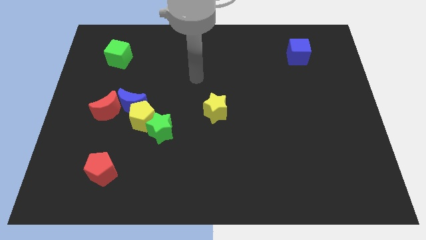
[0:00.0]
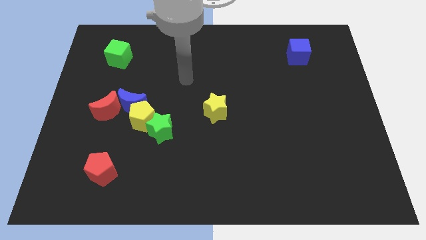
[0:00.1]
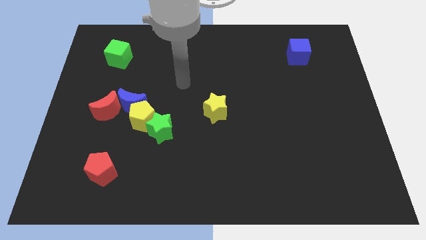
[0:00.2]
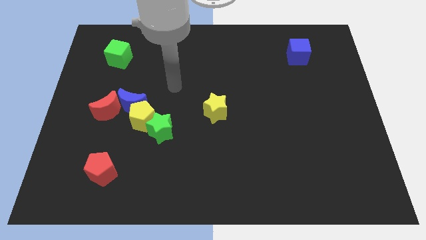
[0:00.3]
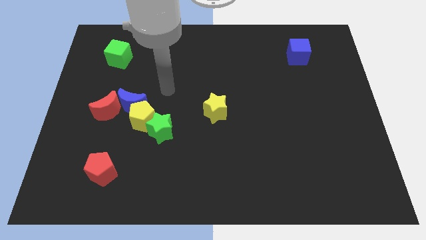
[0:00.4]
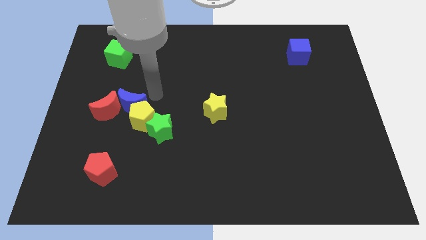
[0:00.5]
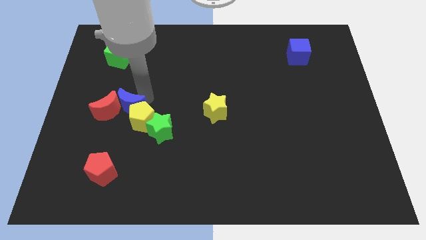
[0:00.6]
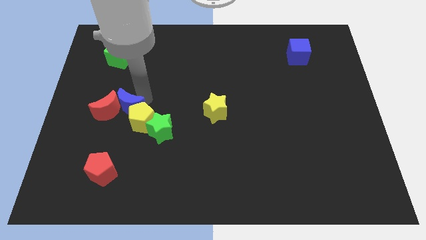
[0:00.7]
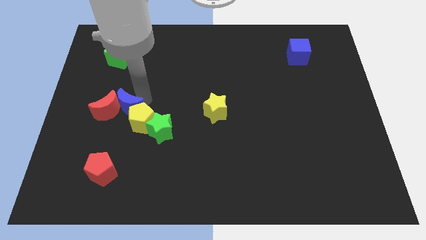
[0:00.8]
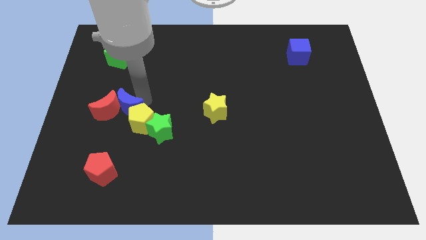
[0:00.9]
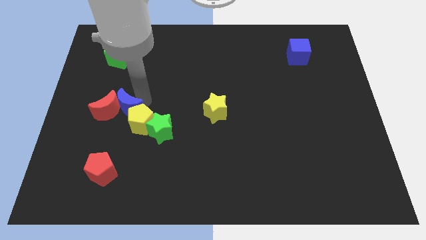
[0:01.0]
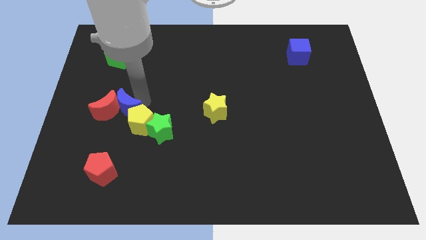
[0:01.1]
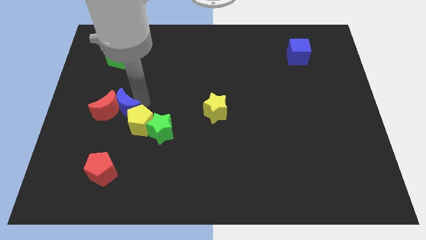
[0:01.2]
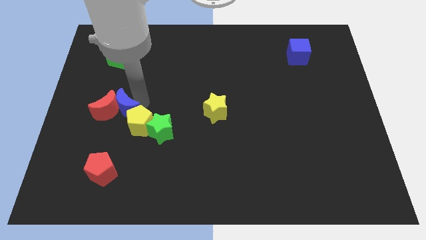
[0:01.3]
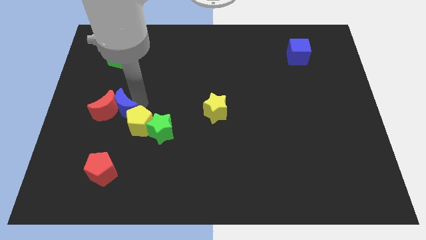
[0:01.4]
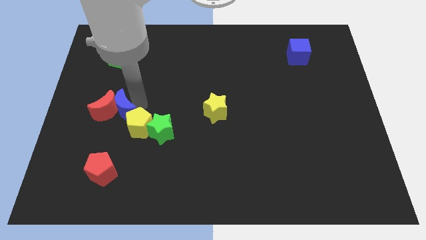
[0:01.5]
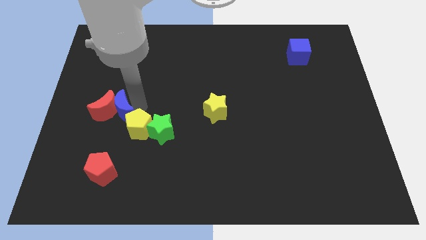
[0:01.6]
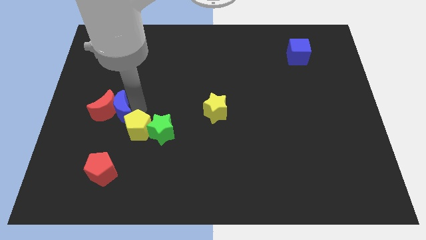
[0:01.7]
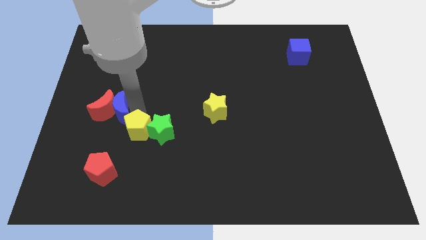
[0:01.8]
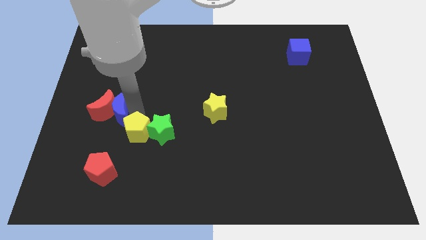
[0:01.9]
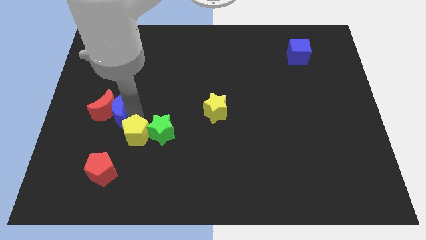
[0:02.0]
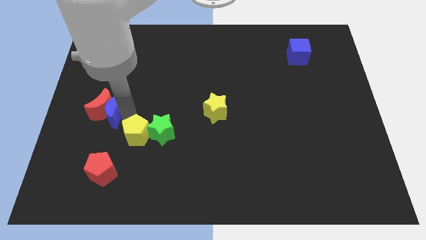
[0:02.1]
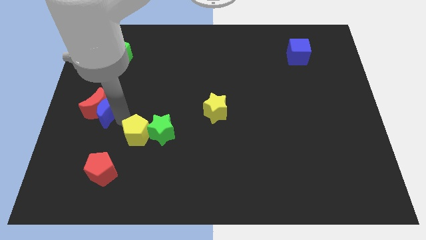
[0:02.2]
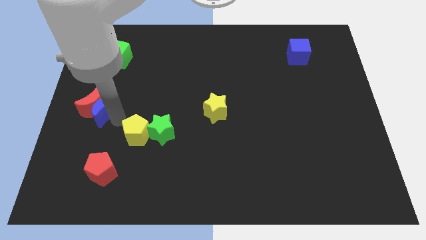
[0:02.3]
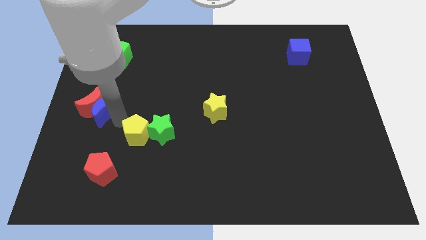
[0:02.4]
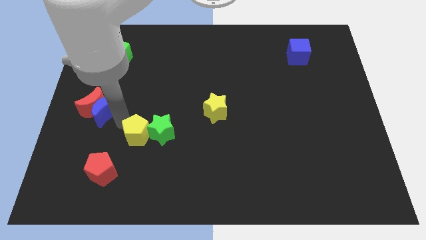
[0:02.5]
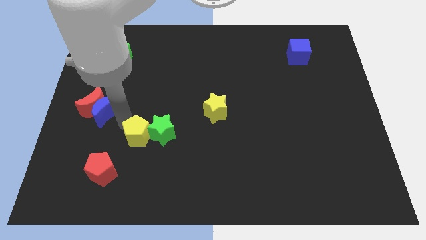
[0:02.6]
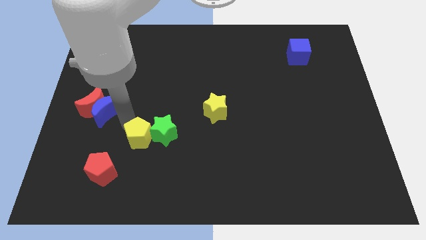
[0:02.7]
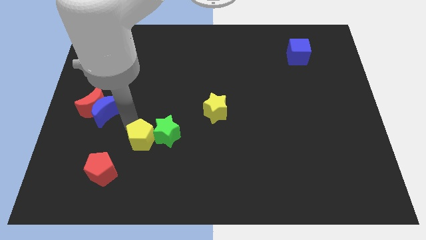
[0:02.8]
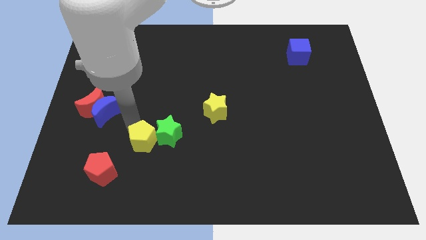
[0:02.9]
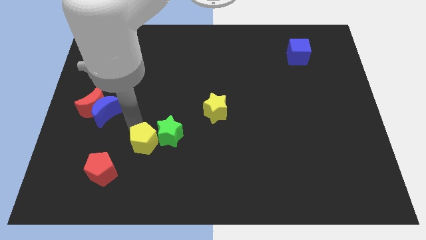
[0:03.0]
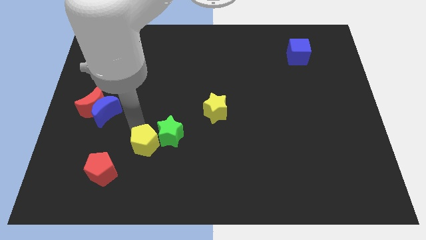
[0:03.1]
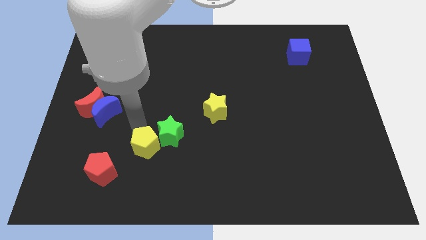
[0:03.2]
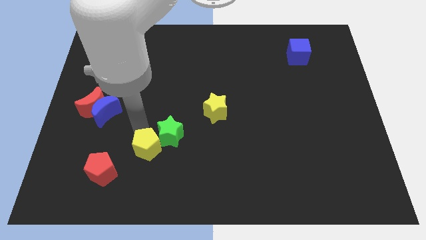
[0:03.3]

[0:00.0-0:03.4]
move the yellow pentagon away from the blue moon, green star, and red moon

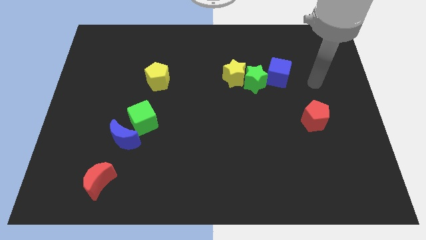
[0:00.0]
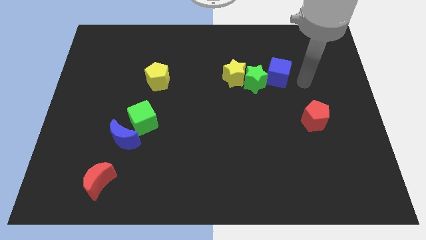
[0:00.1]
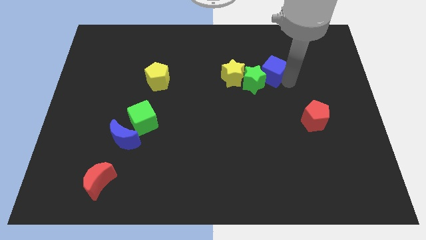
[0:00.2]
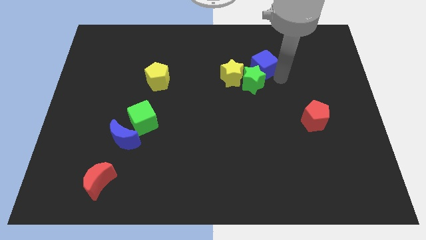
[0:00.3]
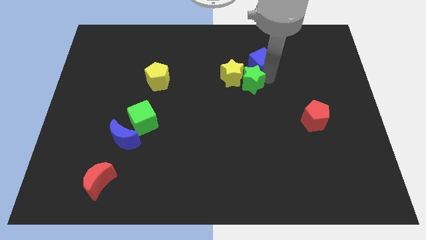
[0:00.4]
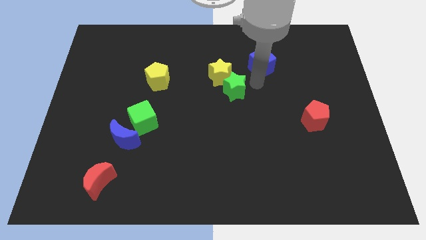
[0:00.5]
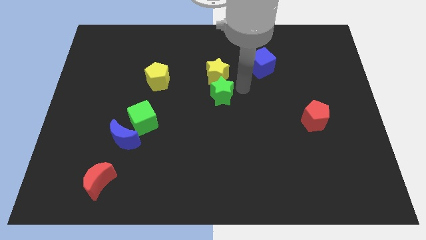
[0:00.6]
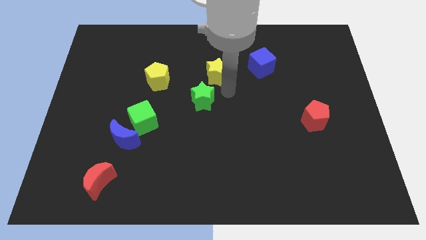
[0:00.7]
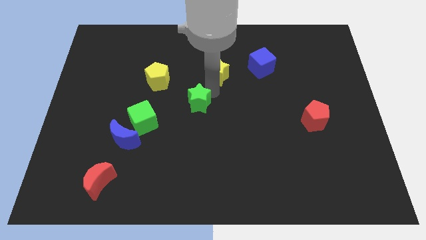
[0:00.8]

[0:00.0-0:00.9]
pull the yellow star apart from the green star

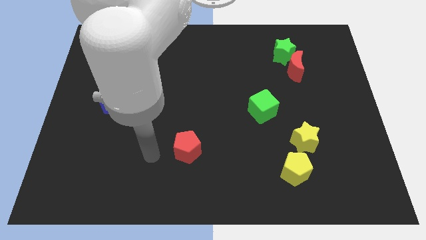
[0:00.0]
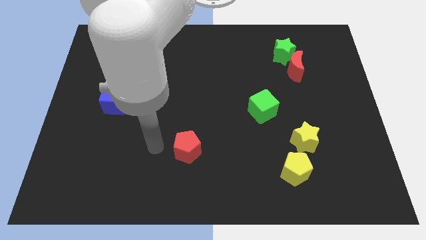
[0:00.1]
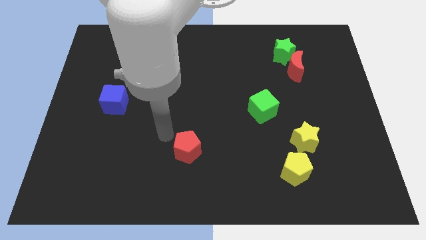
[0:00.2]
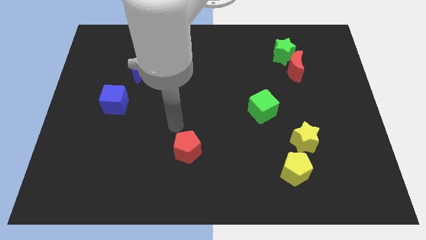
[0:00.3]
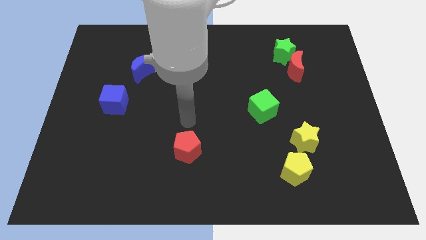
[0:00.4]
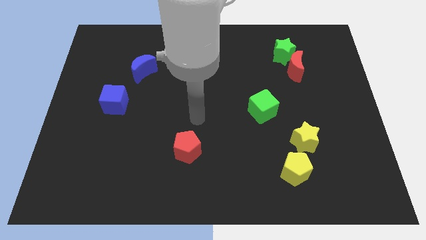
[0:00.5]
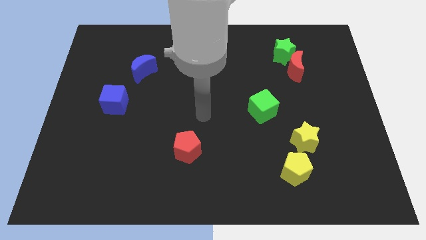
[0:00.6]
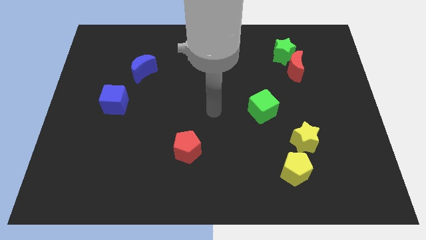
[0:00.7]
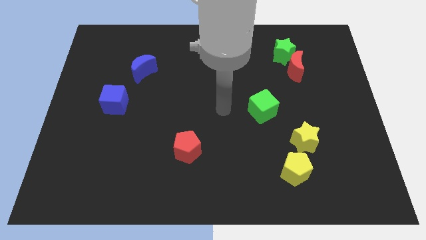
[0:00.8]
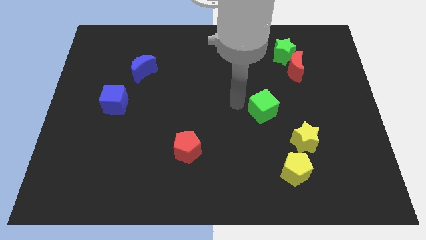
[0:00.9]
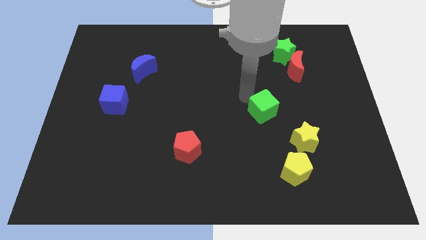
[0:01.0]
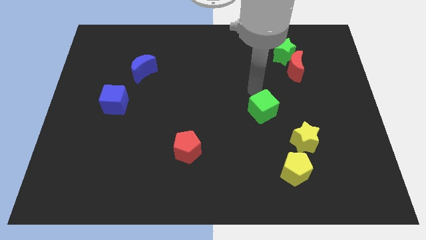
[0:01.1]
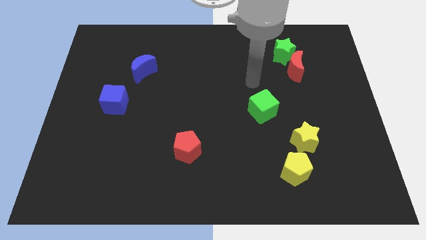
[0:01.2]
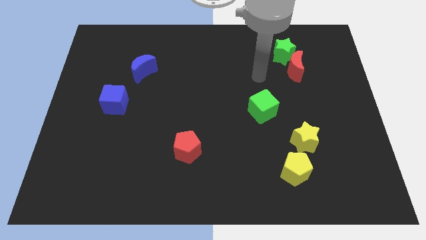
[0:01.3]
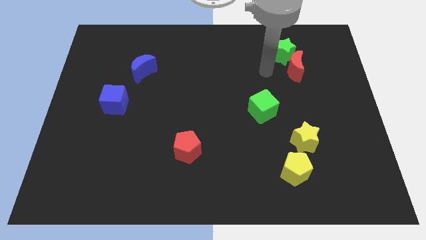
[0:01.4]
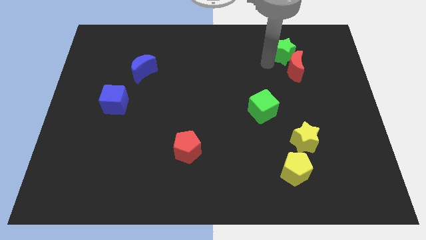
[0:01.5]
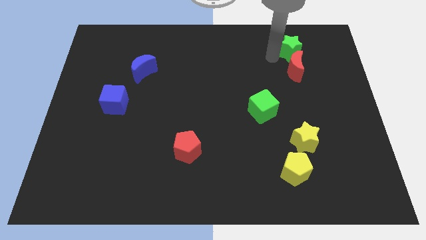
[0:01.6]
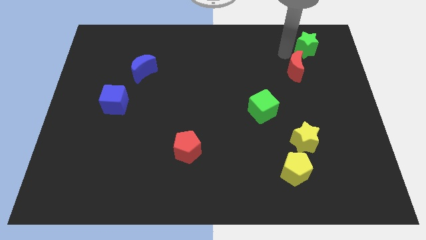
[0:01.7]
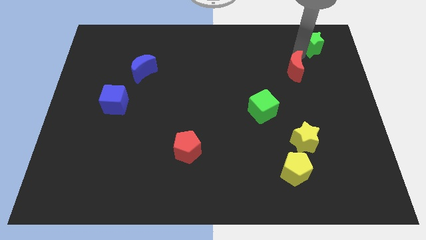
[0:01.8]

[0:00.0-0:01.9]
separate the red moon from the green star

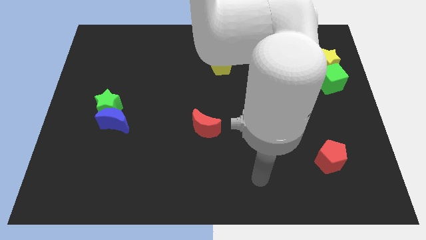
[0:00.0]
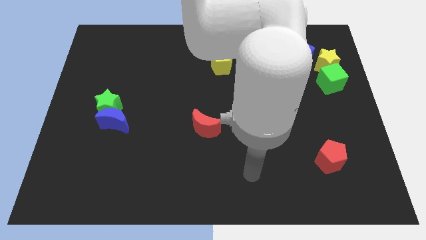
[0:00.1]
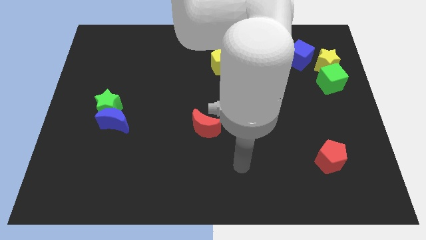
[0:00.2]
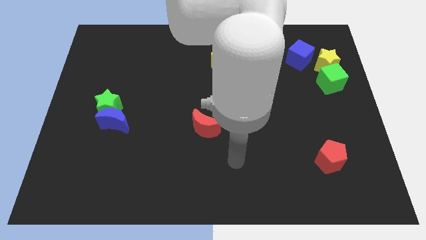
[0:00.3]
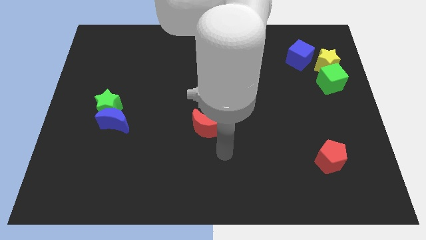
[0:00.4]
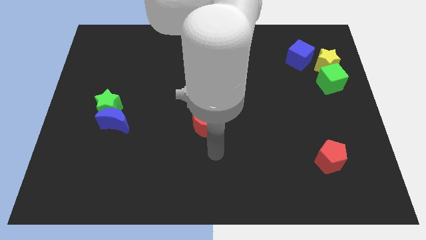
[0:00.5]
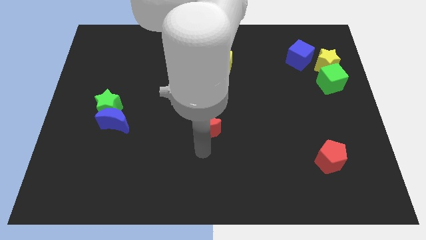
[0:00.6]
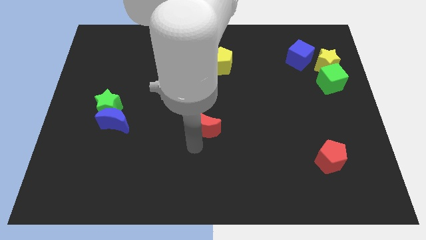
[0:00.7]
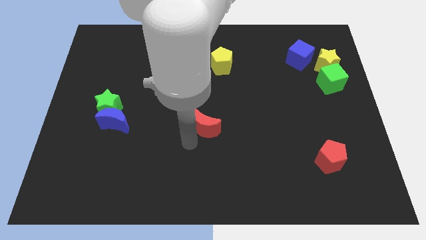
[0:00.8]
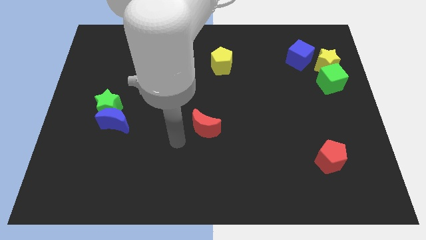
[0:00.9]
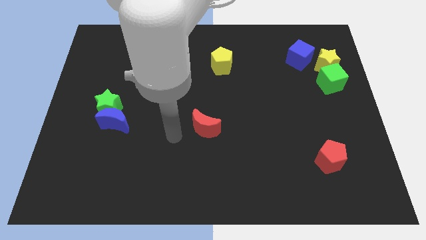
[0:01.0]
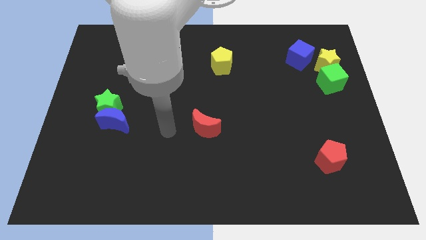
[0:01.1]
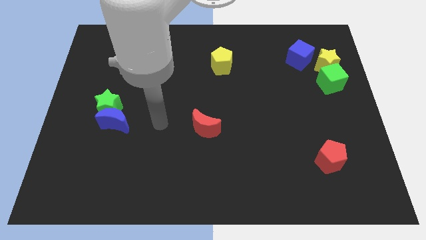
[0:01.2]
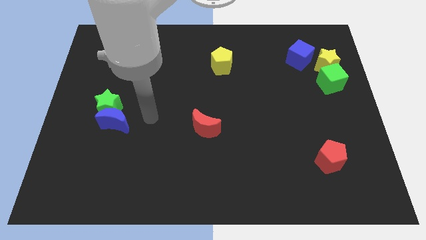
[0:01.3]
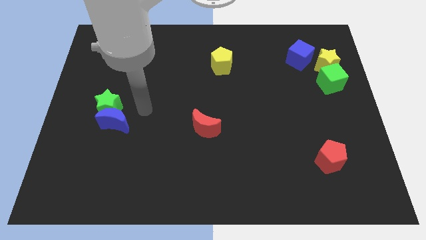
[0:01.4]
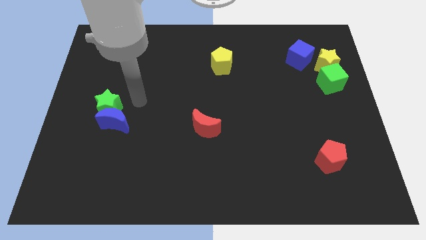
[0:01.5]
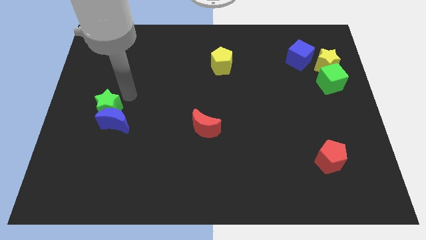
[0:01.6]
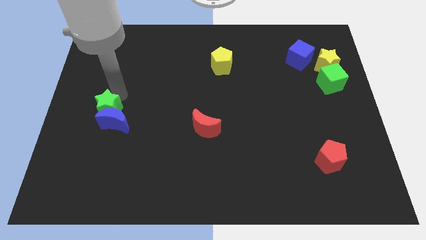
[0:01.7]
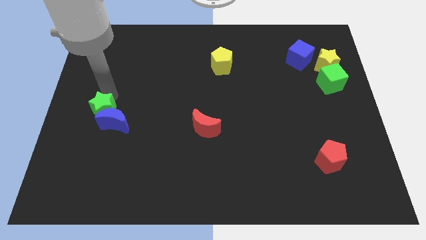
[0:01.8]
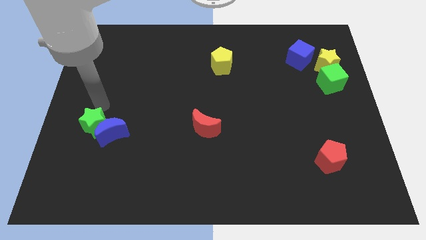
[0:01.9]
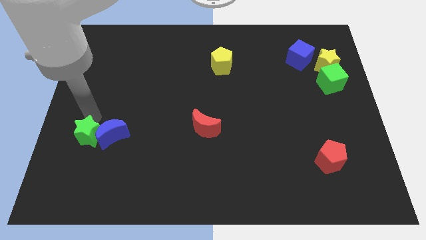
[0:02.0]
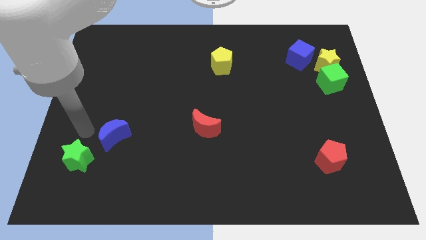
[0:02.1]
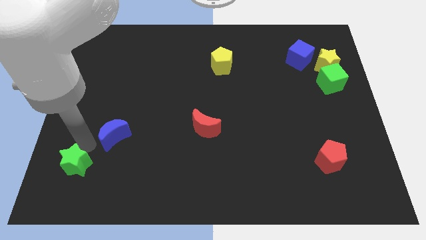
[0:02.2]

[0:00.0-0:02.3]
move the blue moon away from the green star

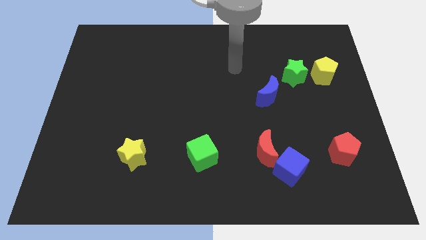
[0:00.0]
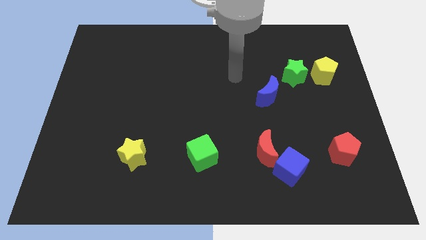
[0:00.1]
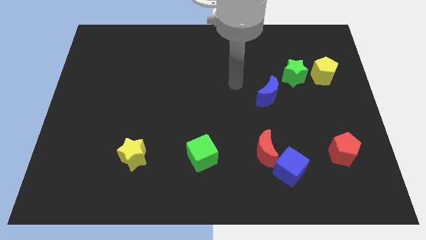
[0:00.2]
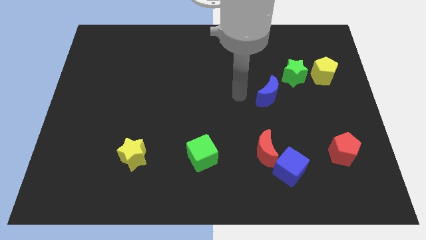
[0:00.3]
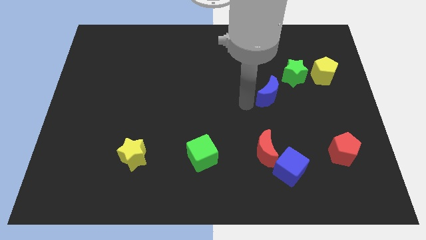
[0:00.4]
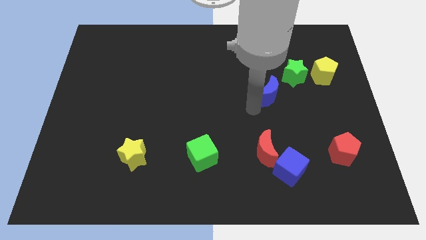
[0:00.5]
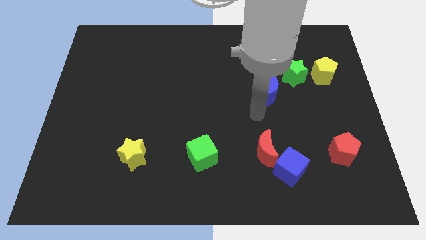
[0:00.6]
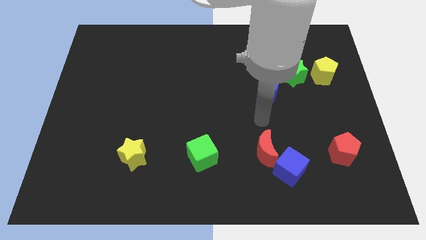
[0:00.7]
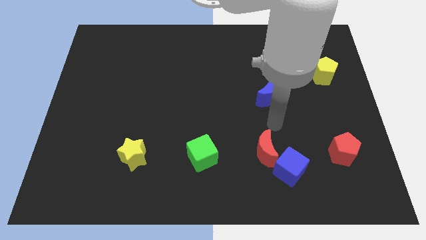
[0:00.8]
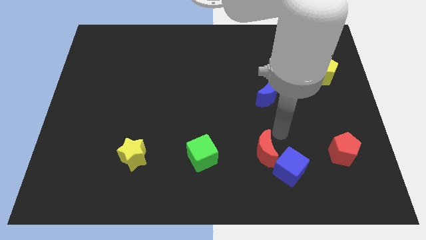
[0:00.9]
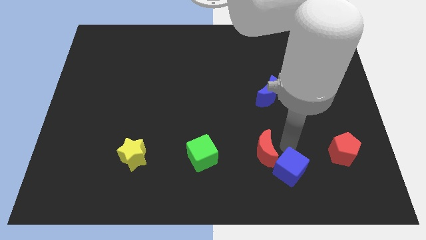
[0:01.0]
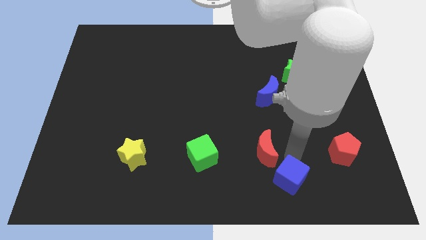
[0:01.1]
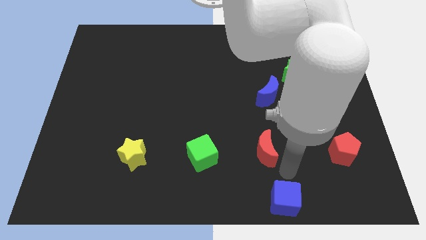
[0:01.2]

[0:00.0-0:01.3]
pull the red moon apart from the blue cube
